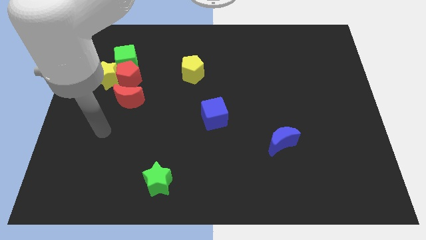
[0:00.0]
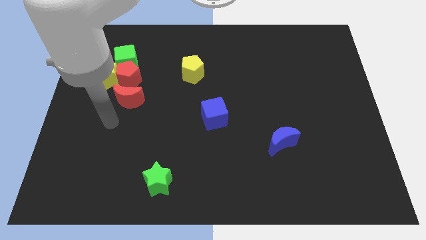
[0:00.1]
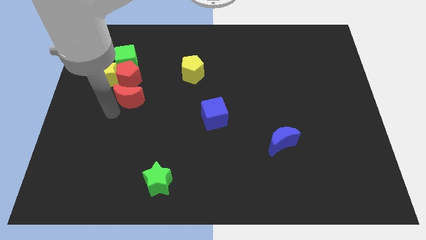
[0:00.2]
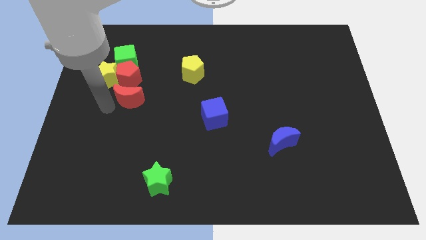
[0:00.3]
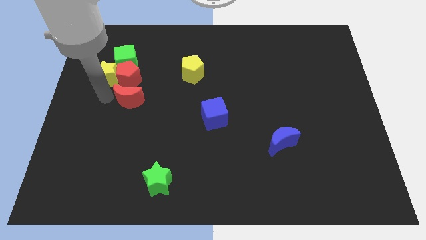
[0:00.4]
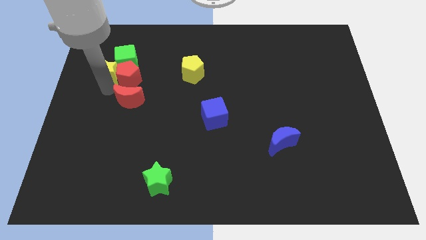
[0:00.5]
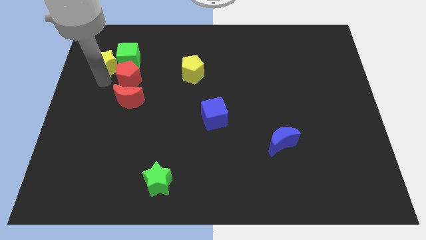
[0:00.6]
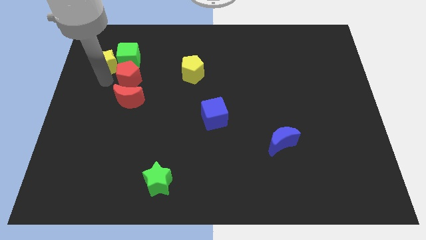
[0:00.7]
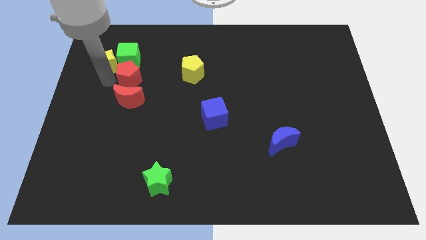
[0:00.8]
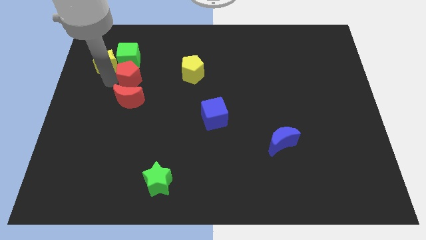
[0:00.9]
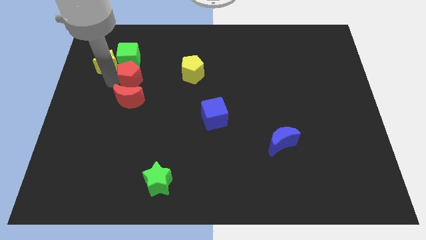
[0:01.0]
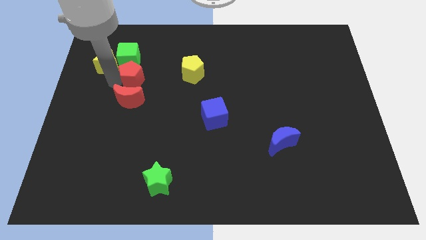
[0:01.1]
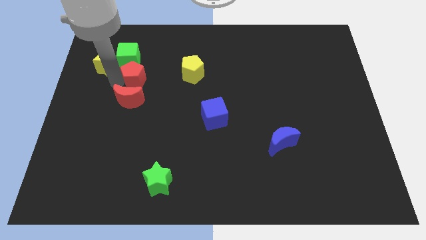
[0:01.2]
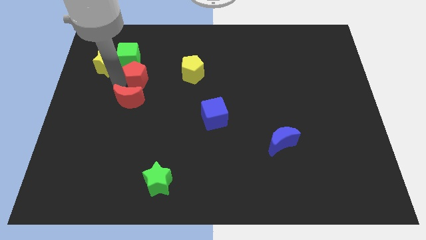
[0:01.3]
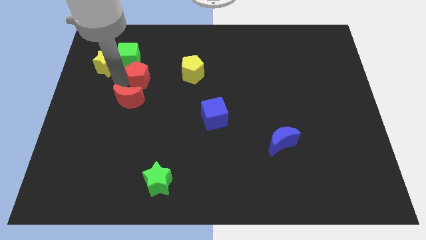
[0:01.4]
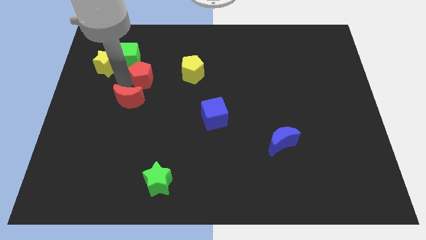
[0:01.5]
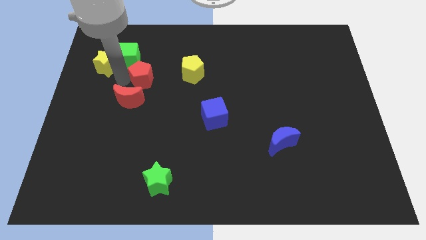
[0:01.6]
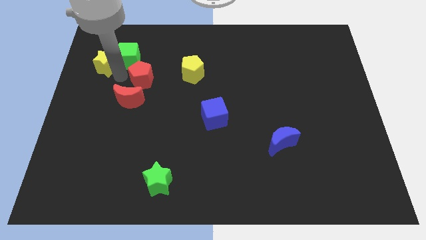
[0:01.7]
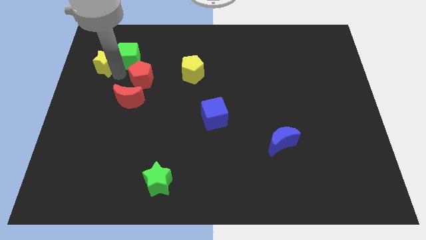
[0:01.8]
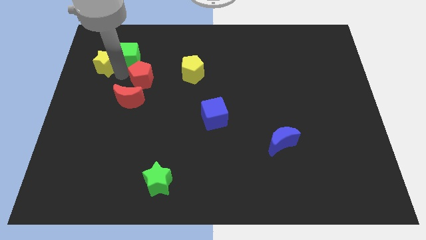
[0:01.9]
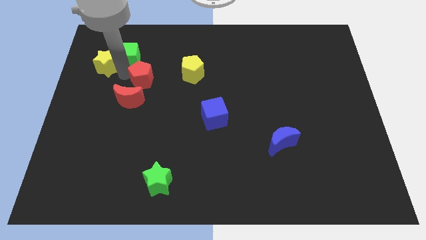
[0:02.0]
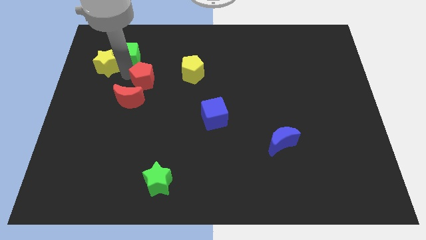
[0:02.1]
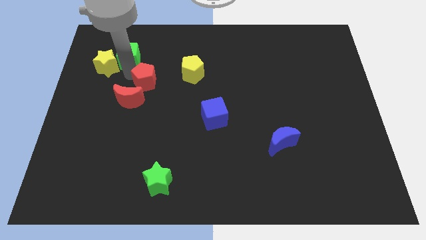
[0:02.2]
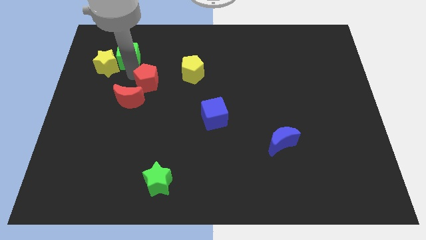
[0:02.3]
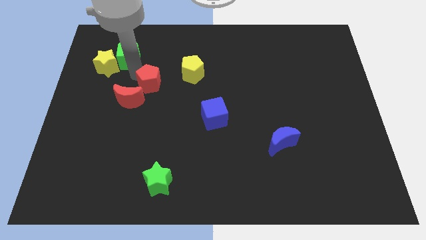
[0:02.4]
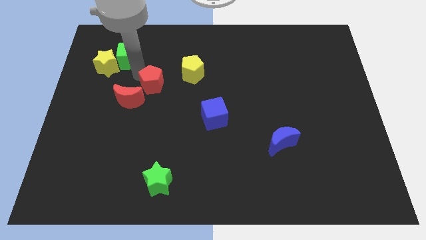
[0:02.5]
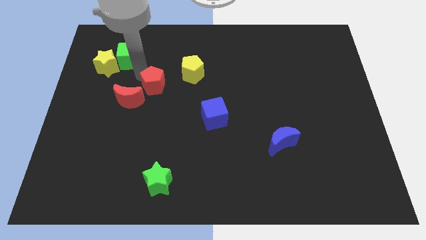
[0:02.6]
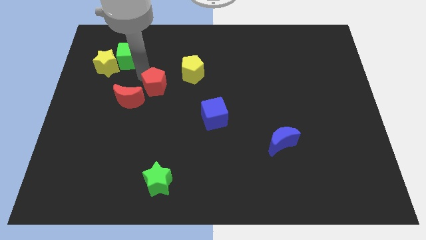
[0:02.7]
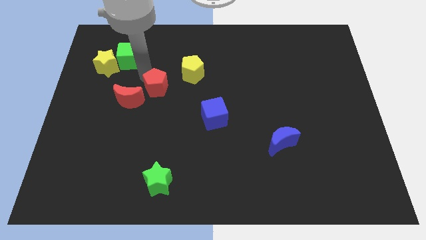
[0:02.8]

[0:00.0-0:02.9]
pull the red pentagon apart from the clump

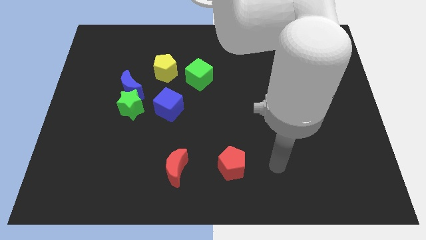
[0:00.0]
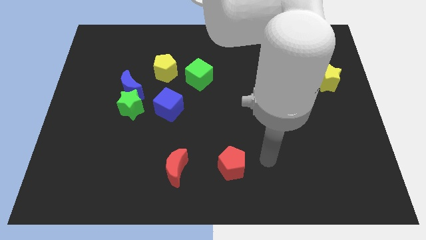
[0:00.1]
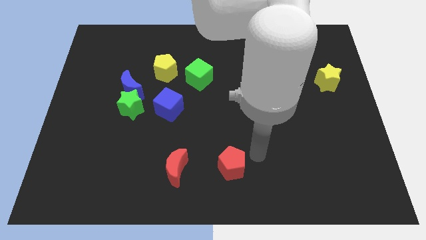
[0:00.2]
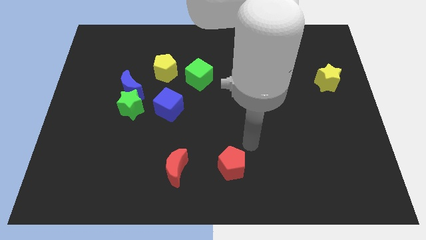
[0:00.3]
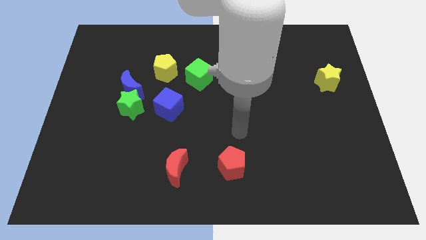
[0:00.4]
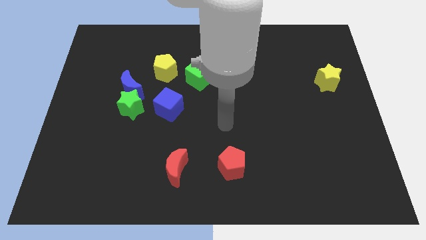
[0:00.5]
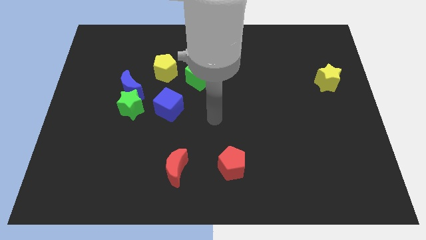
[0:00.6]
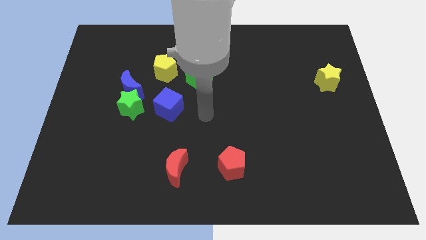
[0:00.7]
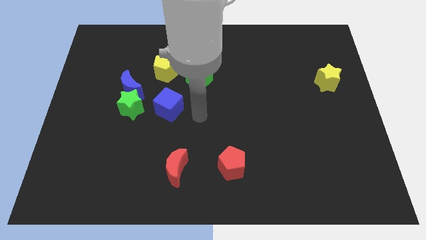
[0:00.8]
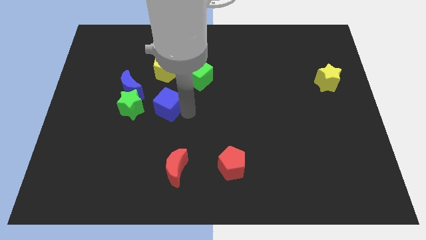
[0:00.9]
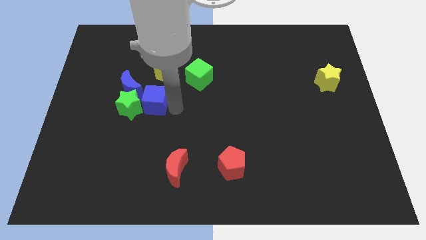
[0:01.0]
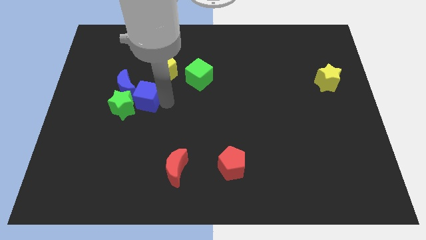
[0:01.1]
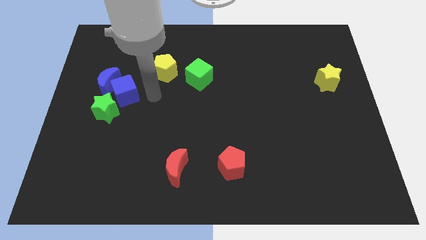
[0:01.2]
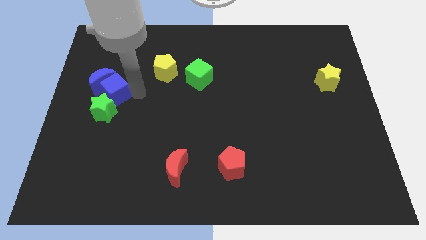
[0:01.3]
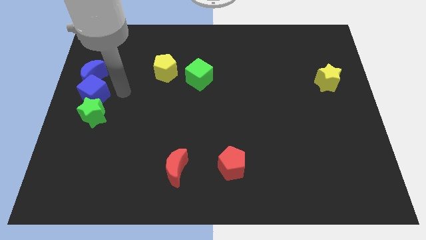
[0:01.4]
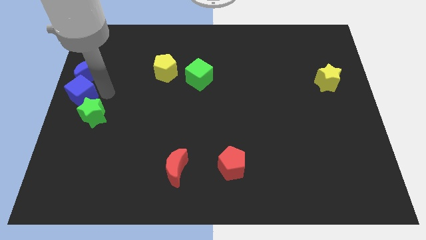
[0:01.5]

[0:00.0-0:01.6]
pull the green star apart from the blue moon and blue cube

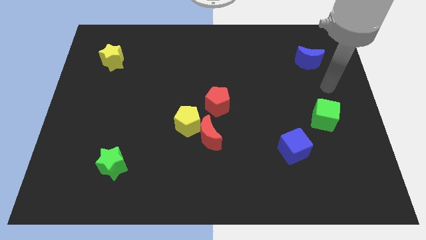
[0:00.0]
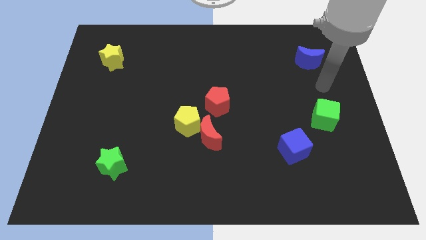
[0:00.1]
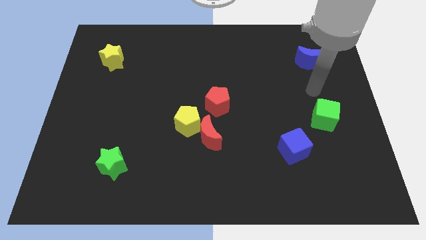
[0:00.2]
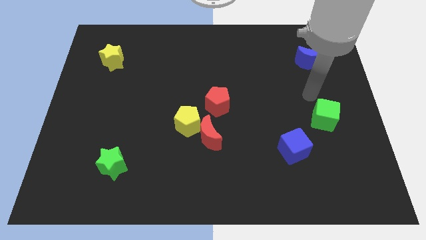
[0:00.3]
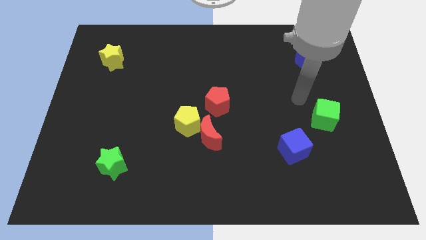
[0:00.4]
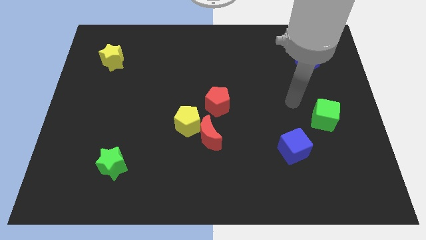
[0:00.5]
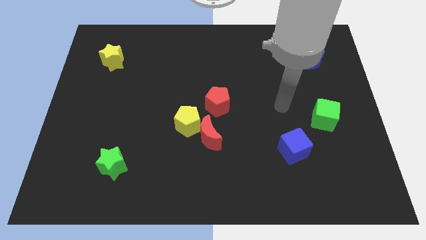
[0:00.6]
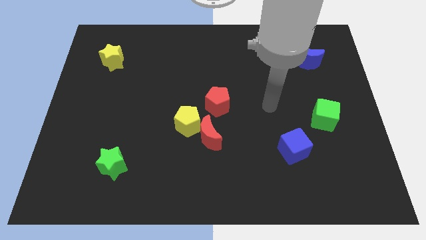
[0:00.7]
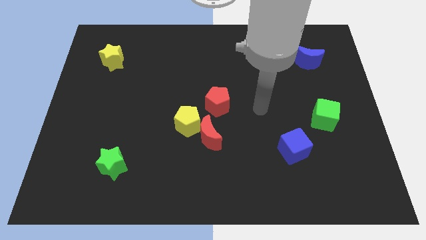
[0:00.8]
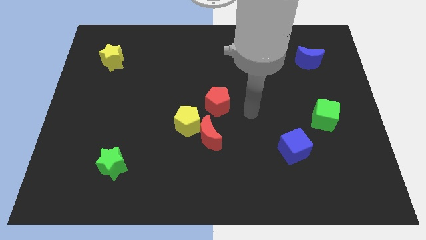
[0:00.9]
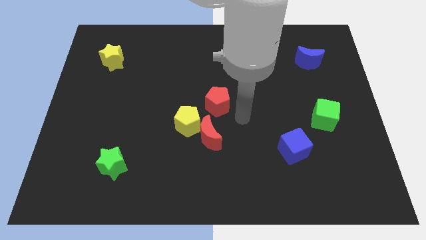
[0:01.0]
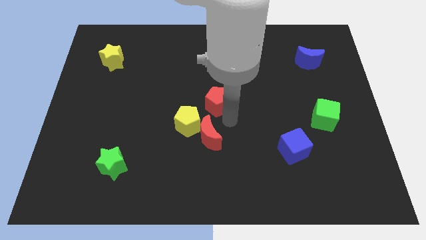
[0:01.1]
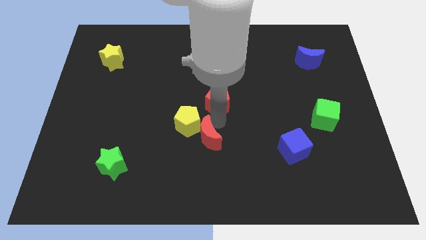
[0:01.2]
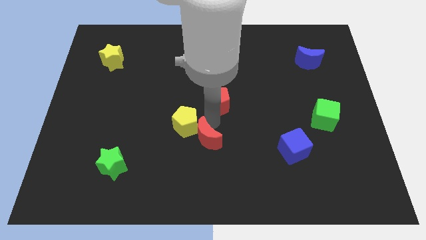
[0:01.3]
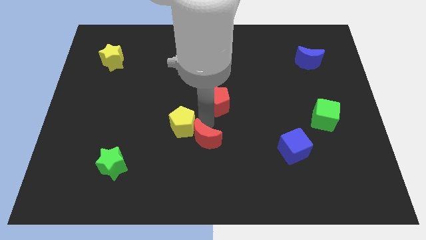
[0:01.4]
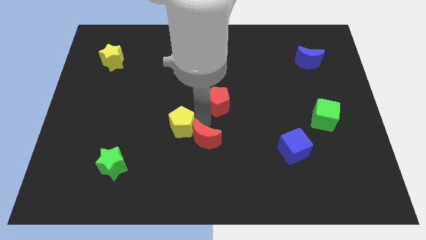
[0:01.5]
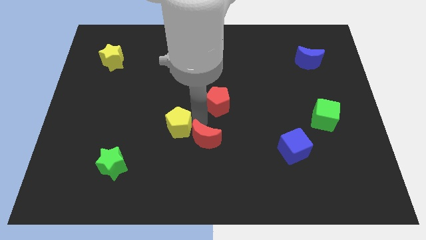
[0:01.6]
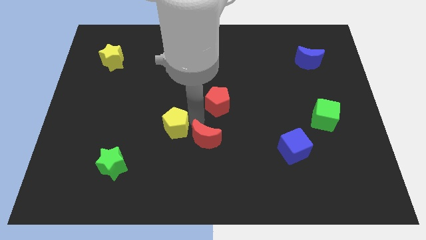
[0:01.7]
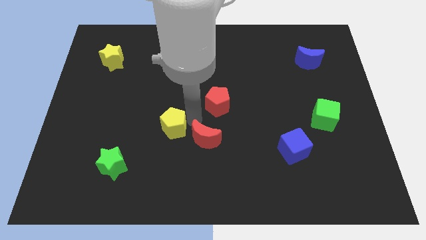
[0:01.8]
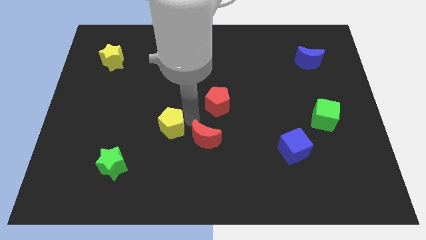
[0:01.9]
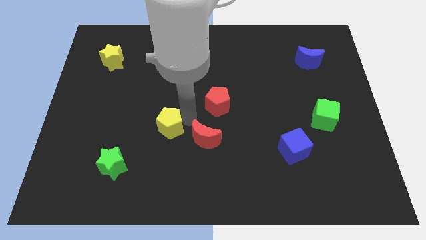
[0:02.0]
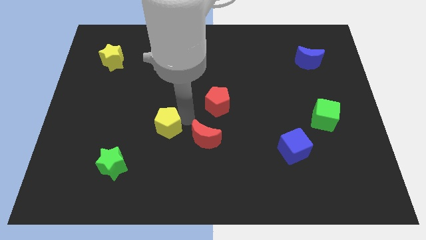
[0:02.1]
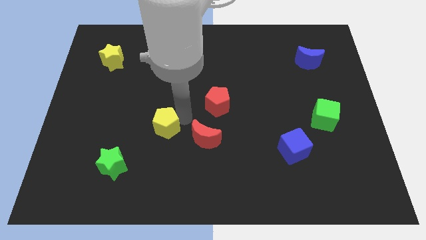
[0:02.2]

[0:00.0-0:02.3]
pull the yellow pentagon apart from the red moon and red pentagon

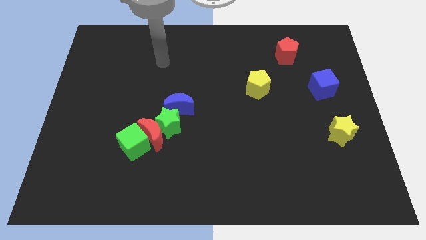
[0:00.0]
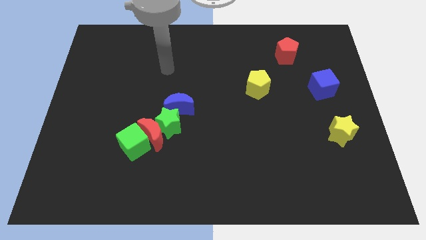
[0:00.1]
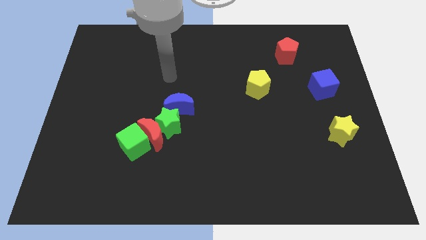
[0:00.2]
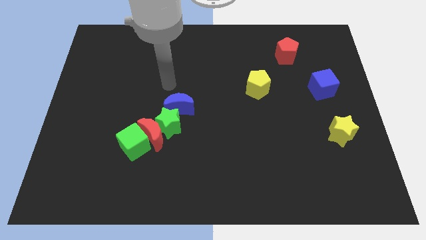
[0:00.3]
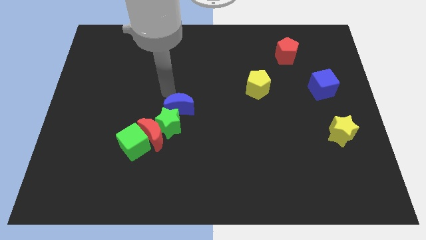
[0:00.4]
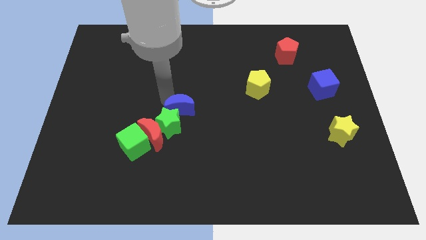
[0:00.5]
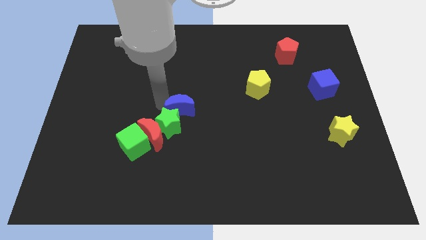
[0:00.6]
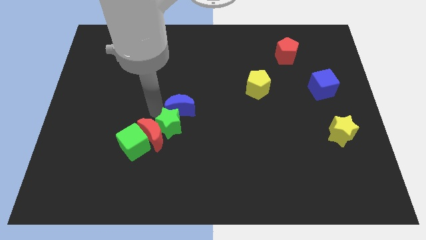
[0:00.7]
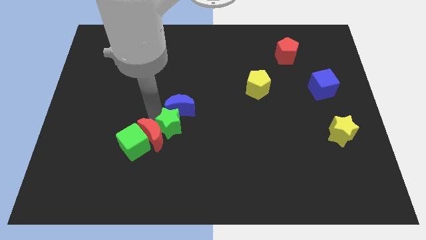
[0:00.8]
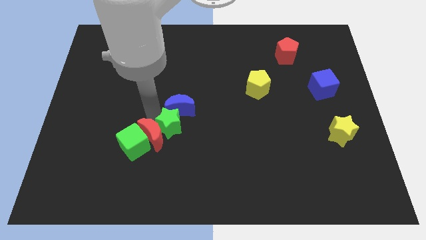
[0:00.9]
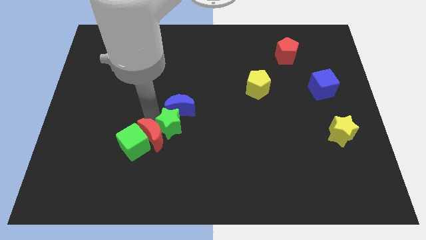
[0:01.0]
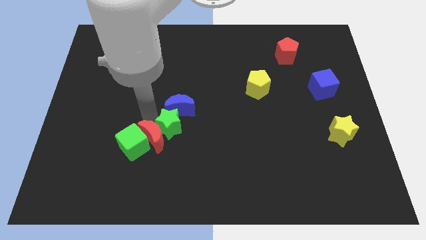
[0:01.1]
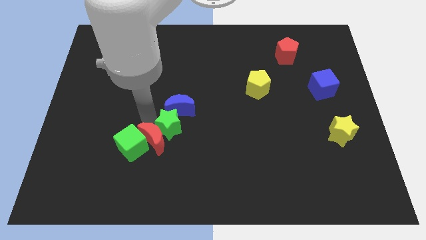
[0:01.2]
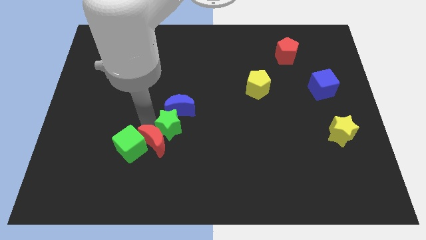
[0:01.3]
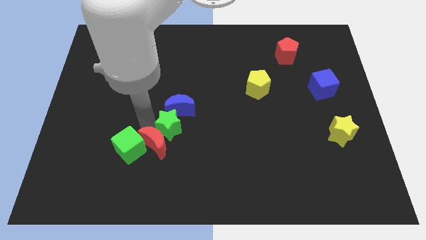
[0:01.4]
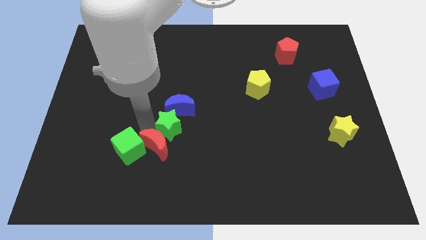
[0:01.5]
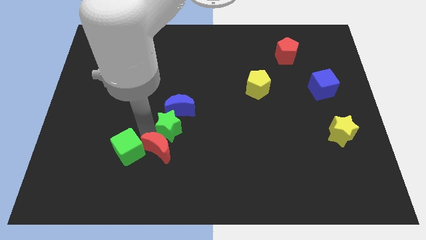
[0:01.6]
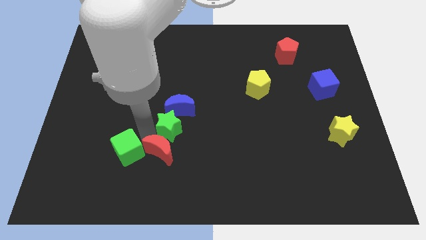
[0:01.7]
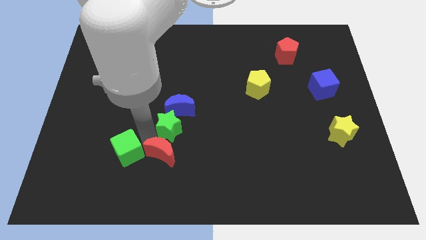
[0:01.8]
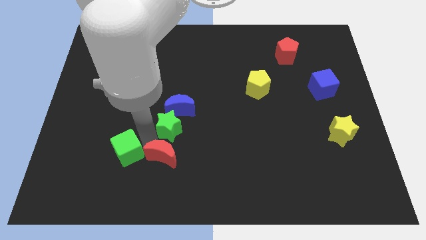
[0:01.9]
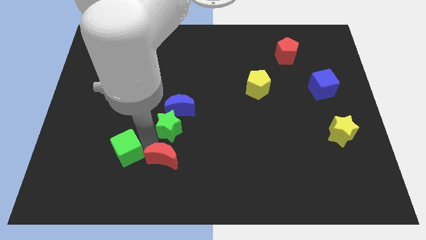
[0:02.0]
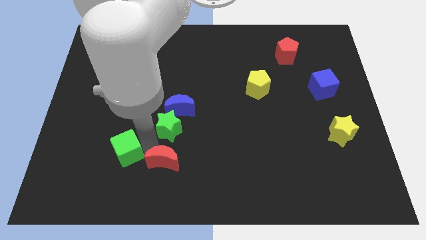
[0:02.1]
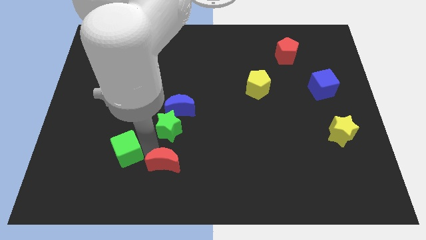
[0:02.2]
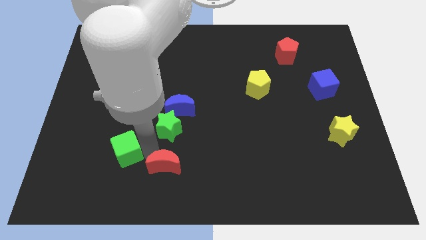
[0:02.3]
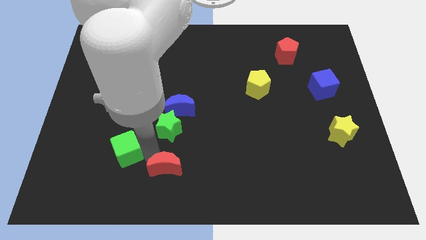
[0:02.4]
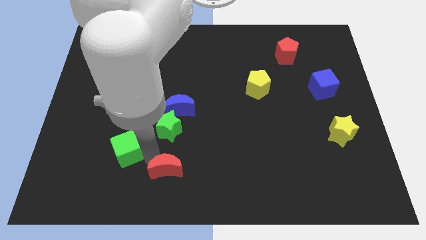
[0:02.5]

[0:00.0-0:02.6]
move the red moon away from the green star, green cube, and blue moon
